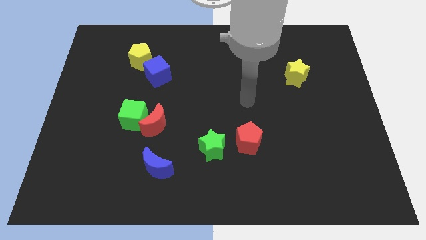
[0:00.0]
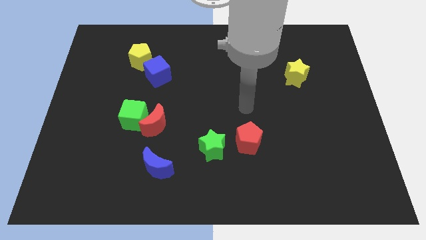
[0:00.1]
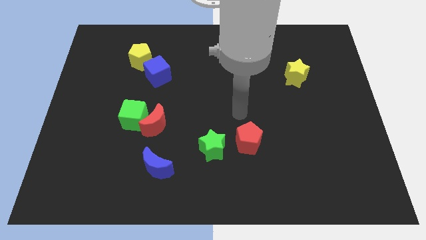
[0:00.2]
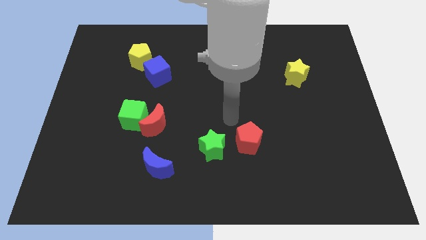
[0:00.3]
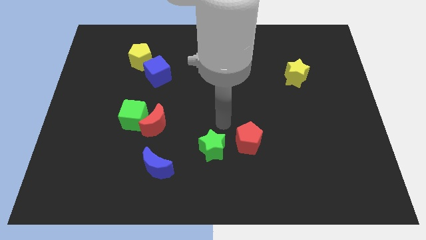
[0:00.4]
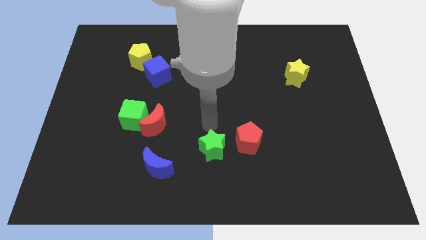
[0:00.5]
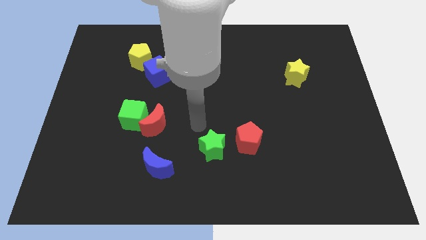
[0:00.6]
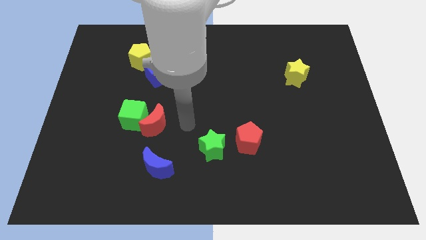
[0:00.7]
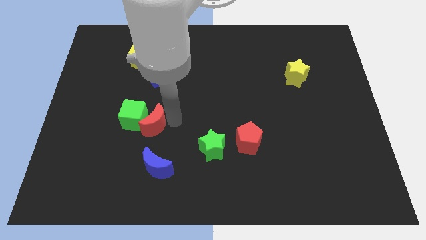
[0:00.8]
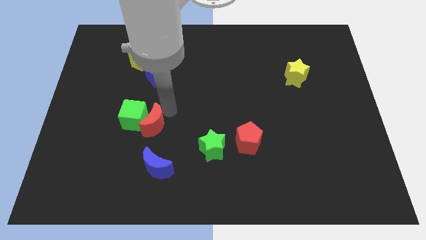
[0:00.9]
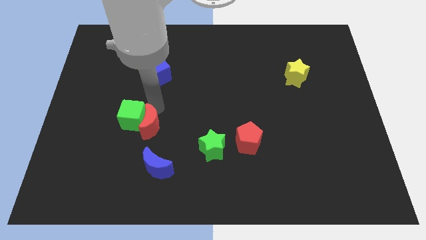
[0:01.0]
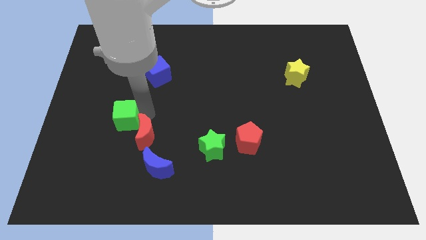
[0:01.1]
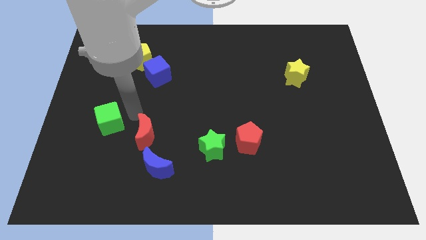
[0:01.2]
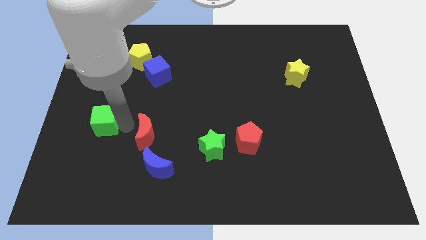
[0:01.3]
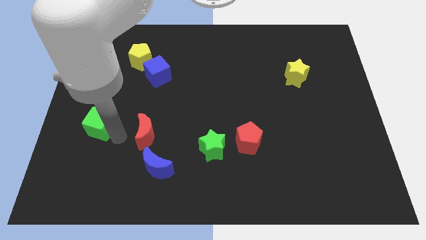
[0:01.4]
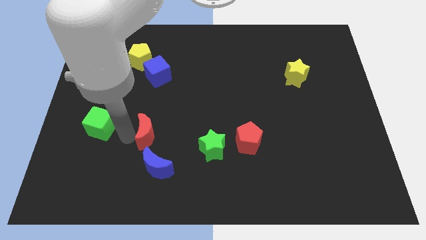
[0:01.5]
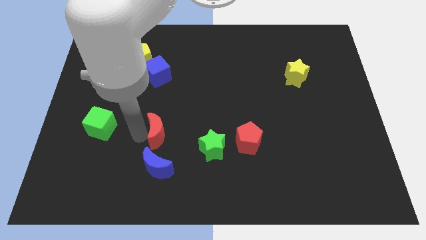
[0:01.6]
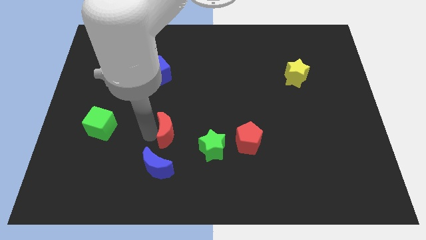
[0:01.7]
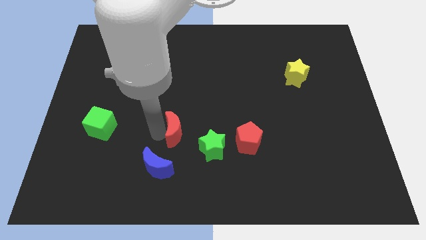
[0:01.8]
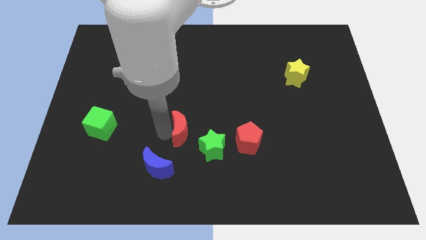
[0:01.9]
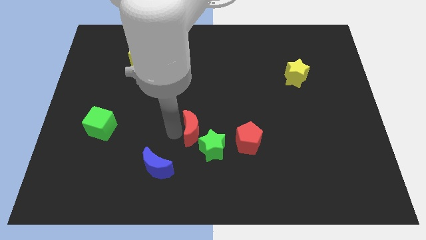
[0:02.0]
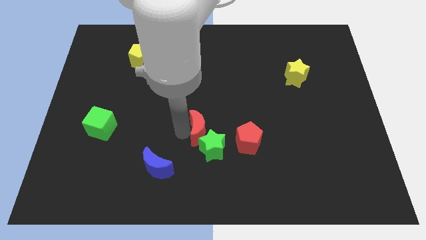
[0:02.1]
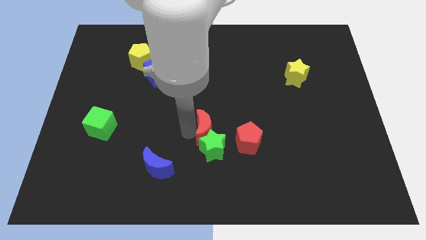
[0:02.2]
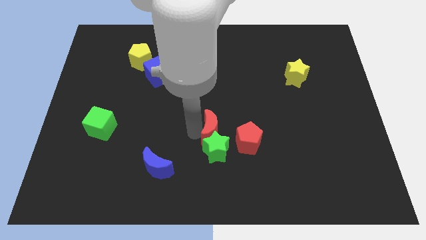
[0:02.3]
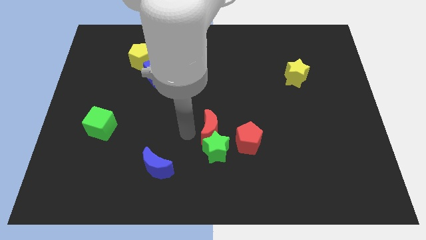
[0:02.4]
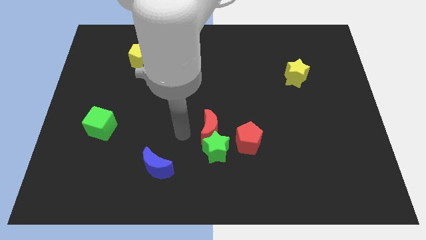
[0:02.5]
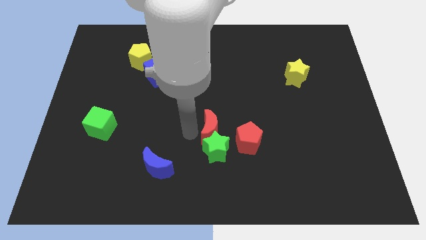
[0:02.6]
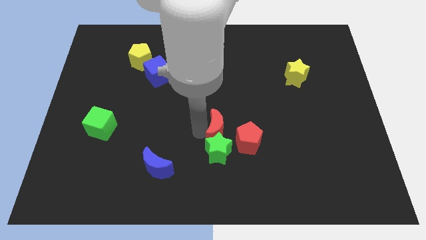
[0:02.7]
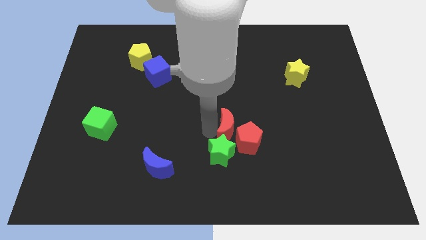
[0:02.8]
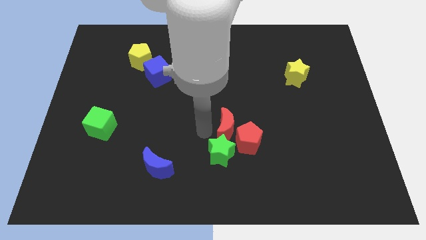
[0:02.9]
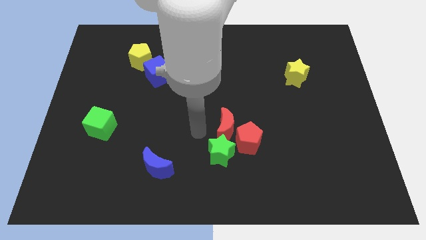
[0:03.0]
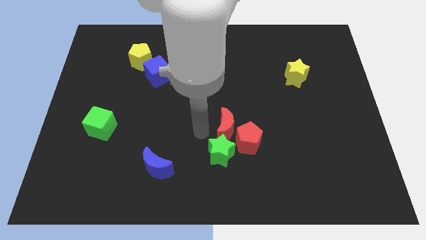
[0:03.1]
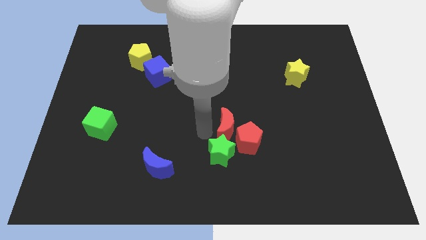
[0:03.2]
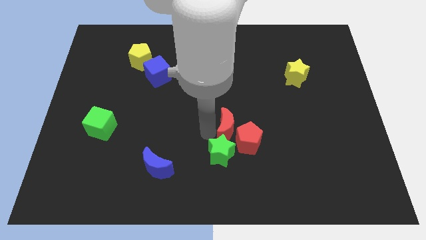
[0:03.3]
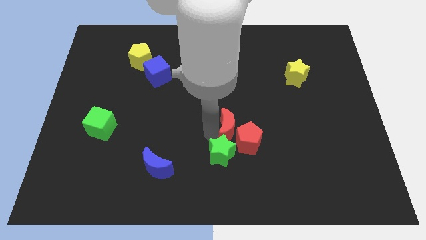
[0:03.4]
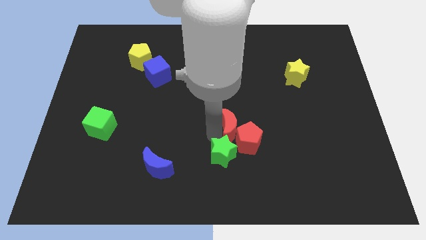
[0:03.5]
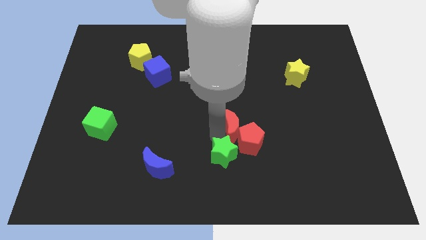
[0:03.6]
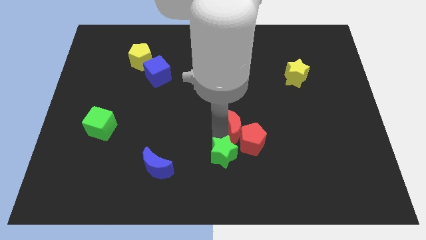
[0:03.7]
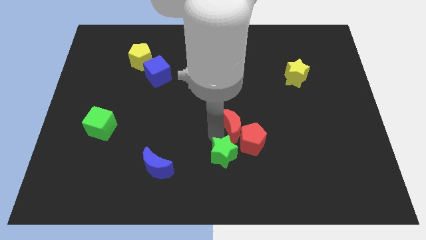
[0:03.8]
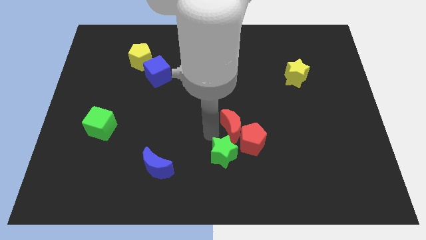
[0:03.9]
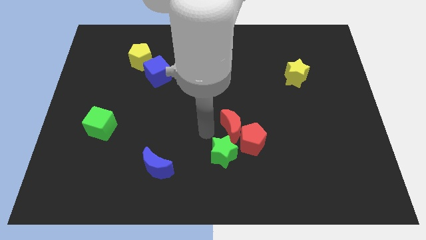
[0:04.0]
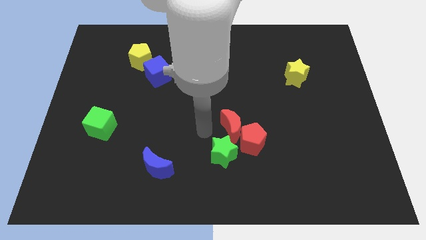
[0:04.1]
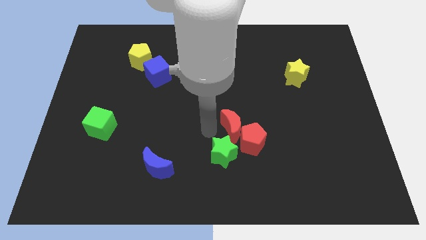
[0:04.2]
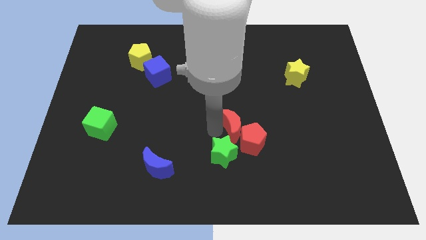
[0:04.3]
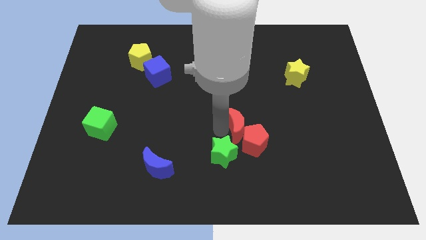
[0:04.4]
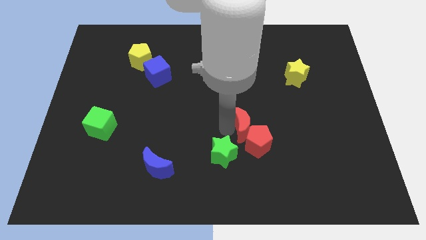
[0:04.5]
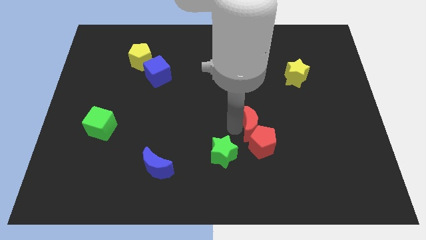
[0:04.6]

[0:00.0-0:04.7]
move the red moon to the right

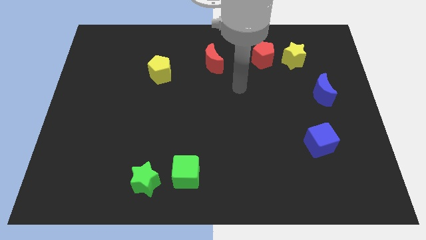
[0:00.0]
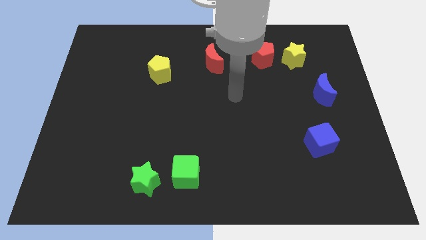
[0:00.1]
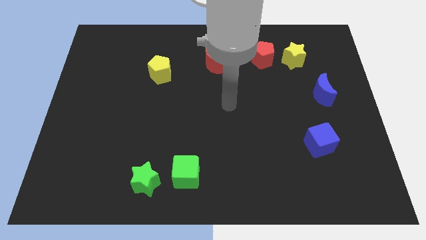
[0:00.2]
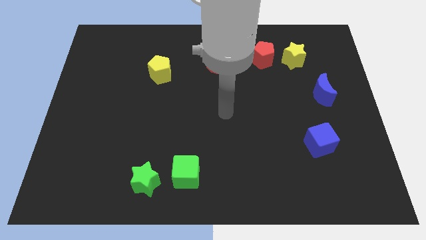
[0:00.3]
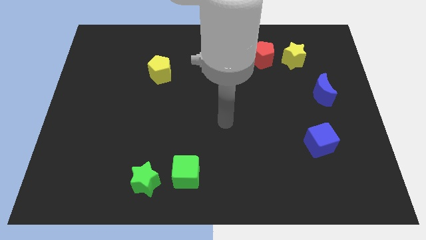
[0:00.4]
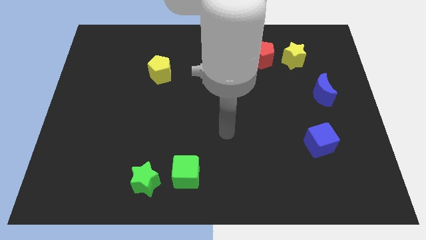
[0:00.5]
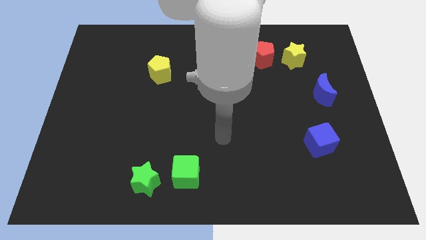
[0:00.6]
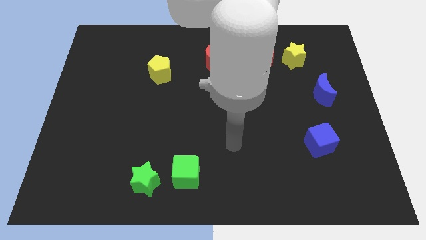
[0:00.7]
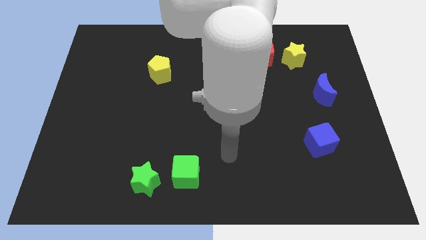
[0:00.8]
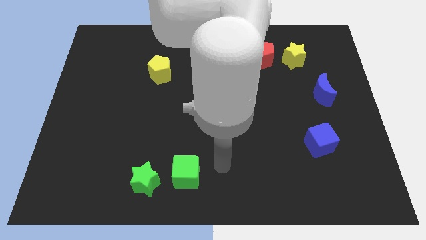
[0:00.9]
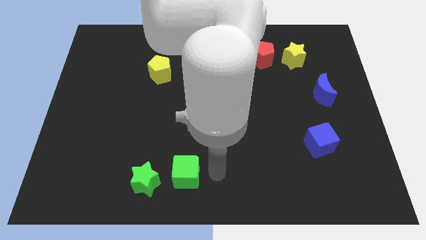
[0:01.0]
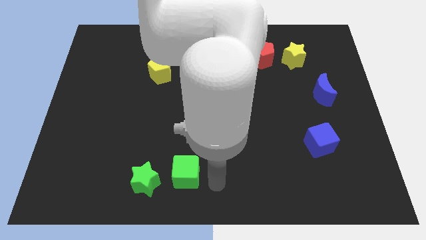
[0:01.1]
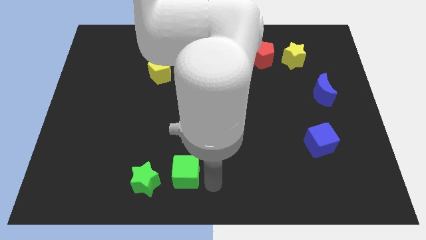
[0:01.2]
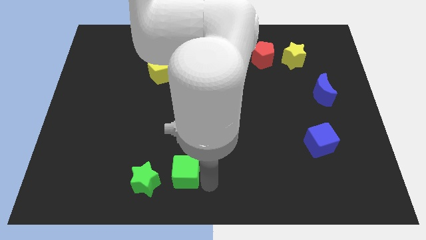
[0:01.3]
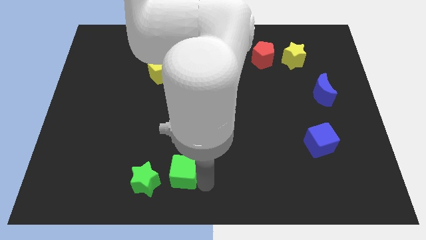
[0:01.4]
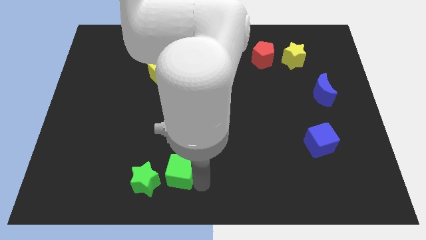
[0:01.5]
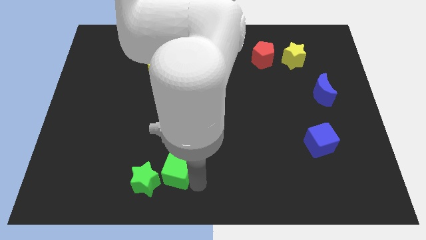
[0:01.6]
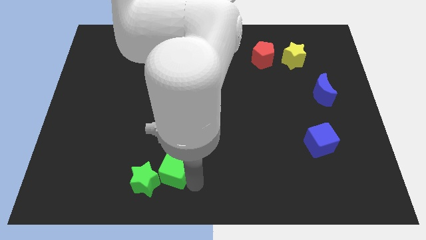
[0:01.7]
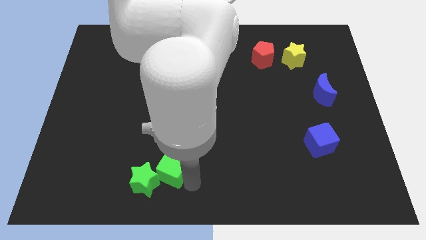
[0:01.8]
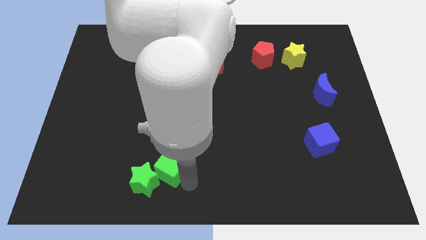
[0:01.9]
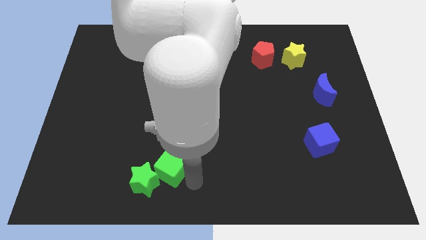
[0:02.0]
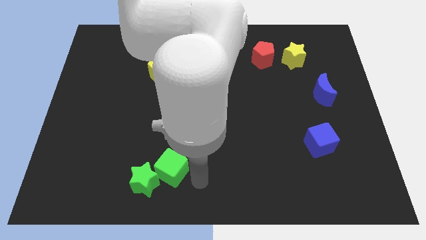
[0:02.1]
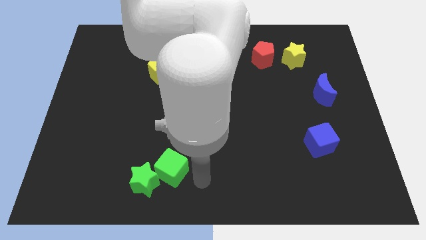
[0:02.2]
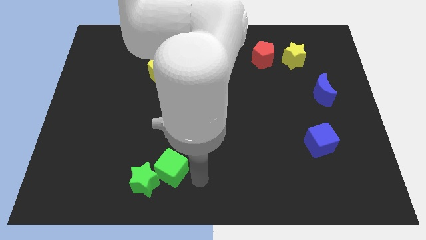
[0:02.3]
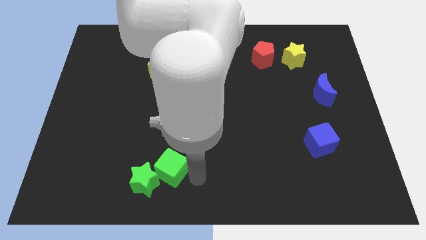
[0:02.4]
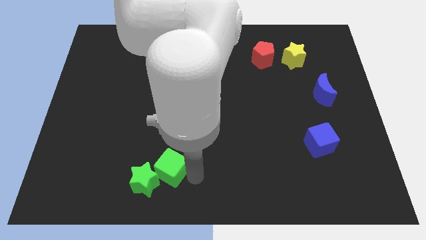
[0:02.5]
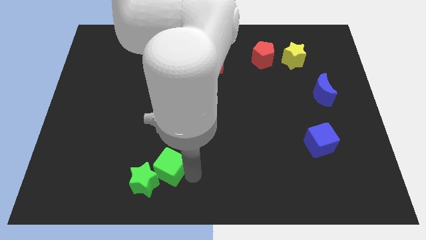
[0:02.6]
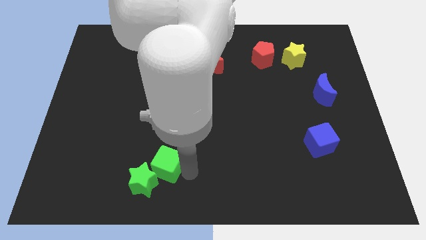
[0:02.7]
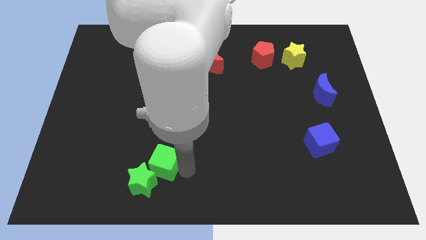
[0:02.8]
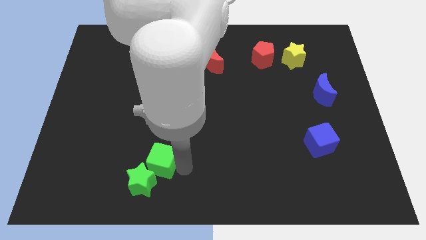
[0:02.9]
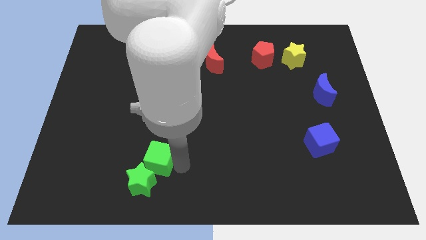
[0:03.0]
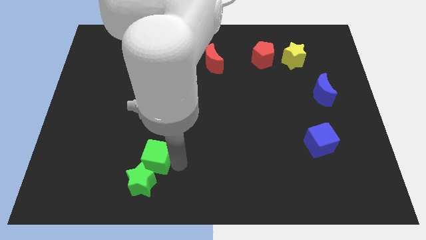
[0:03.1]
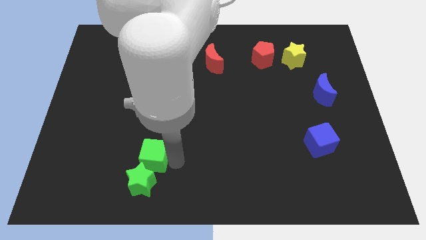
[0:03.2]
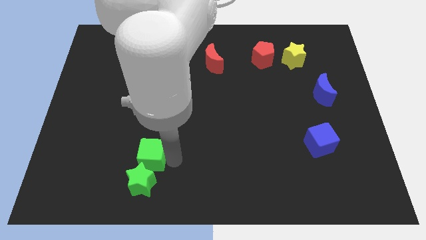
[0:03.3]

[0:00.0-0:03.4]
push the green cube left somewhat
